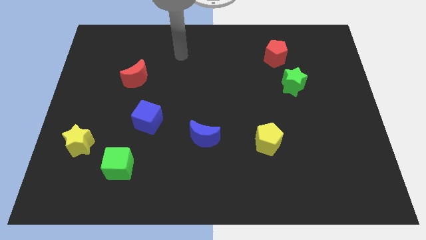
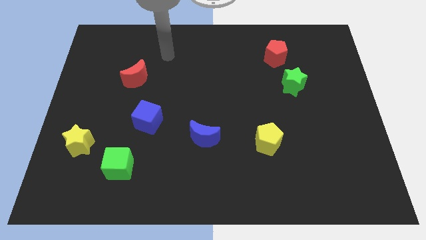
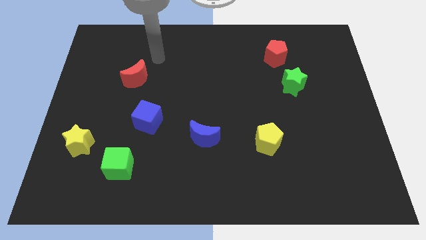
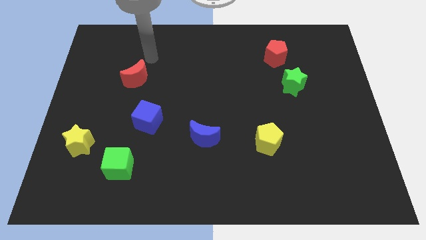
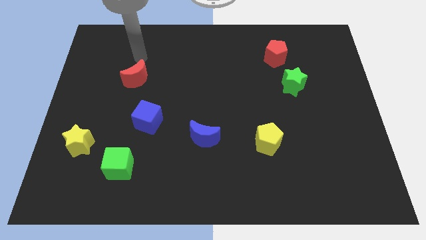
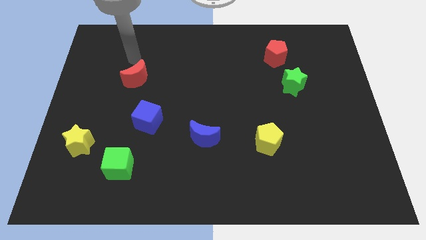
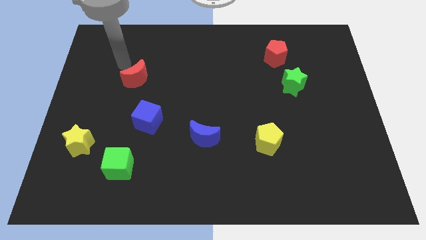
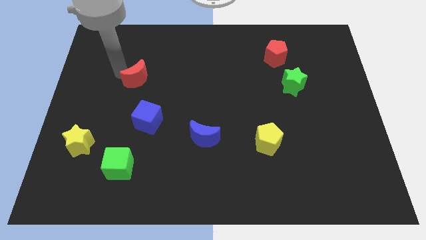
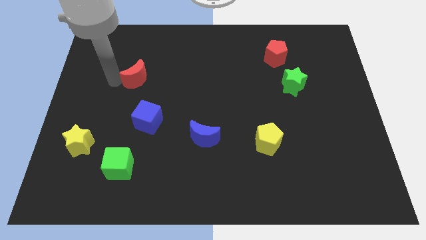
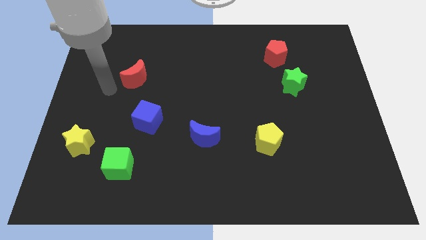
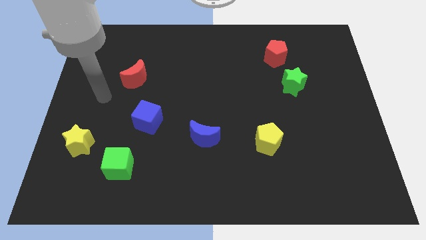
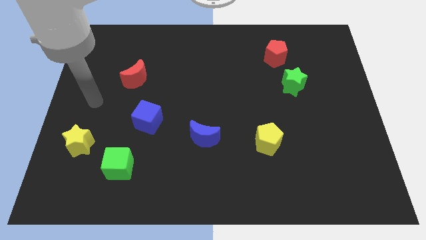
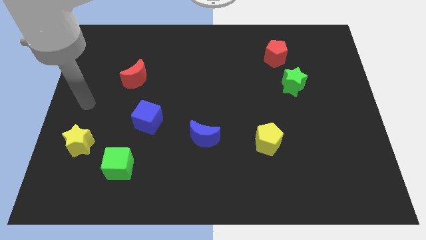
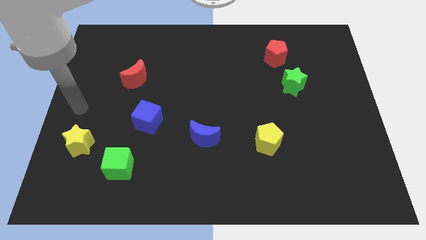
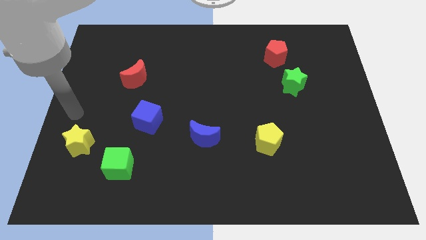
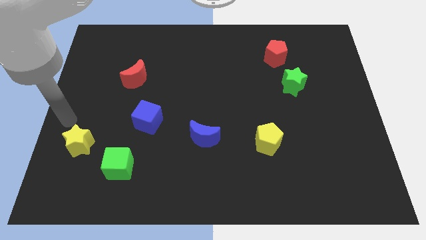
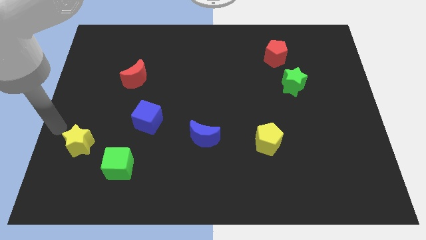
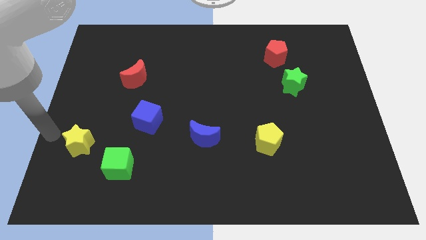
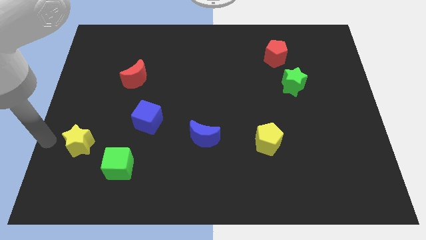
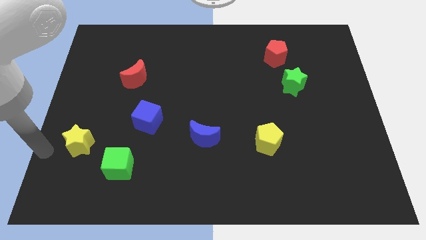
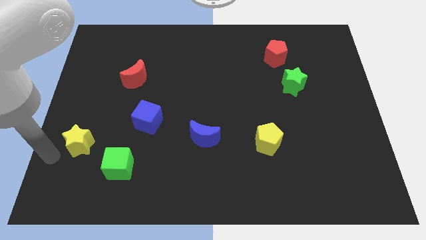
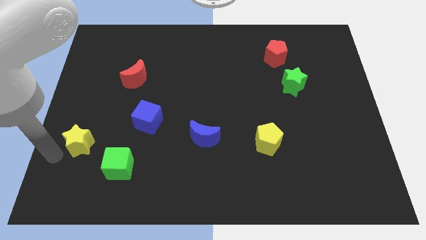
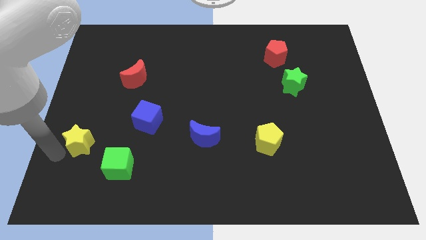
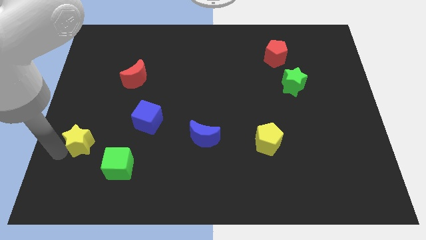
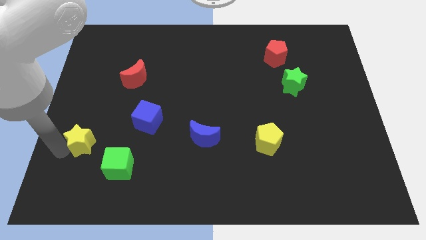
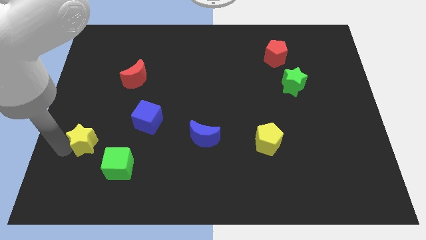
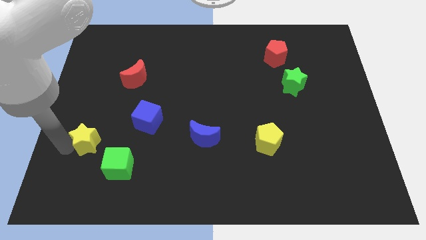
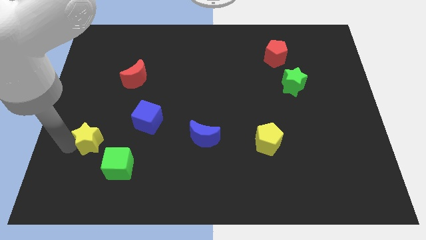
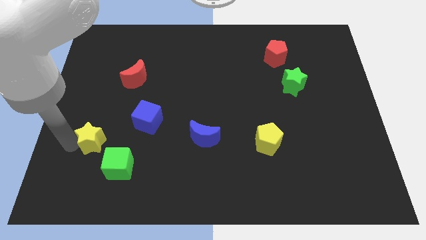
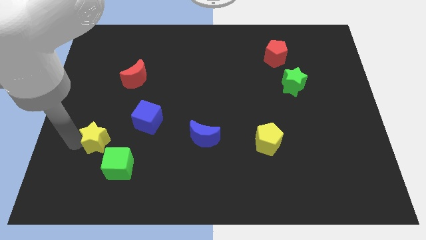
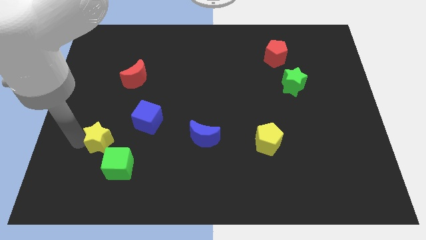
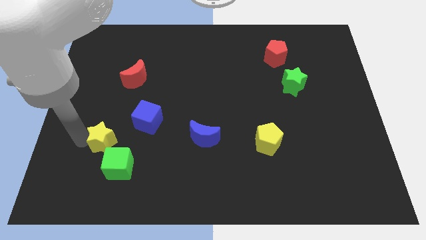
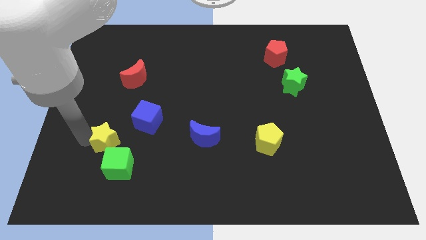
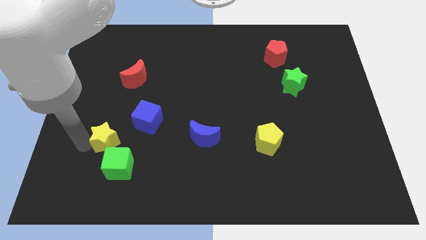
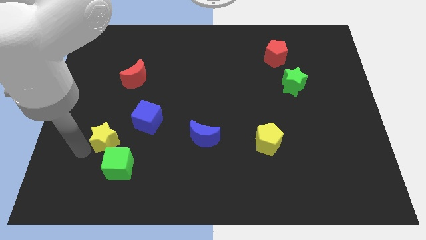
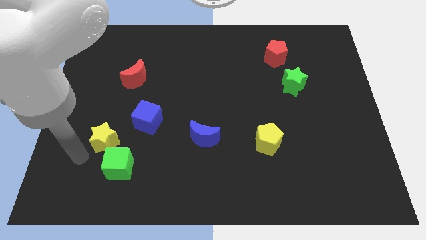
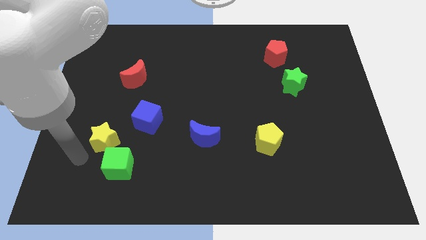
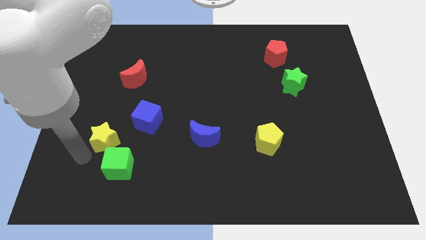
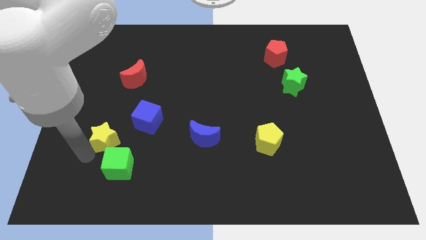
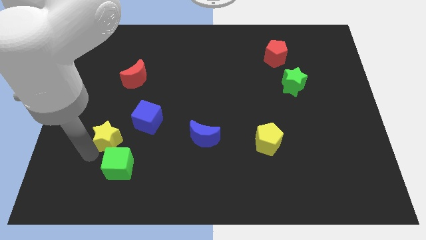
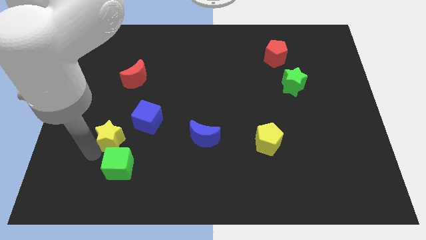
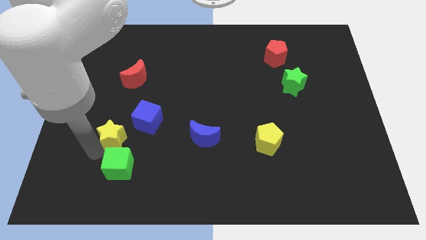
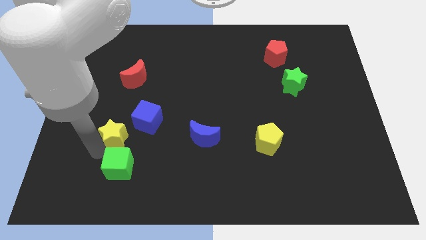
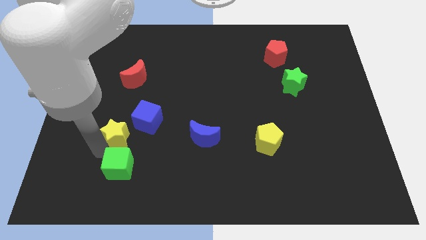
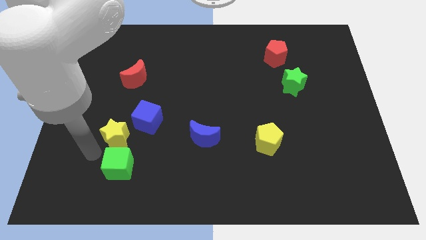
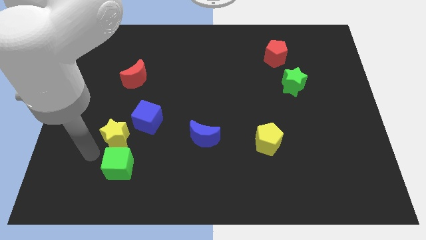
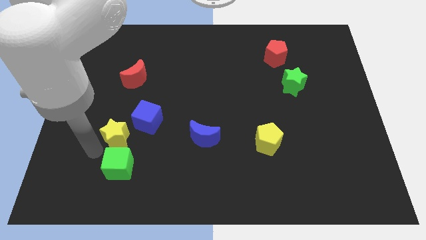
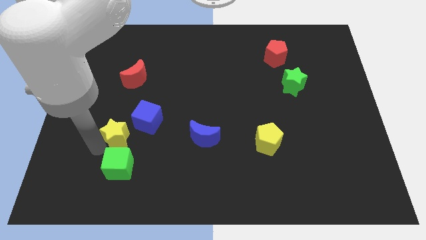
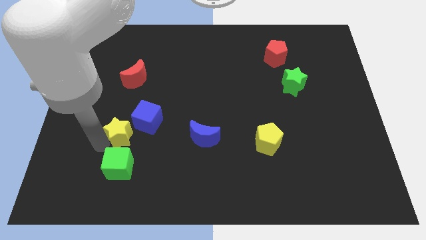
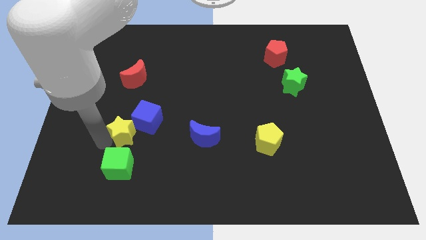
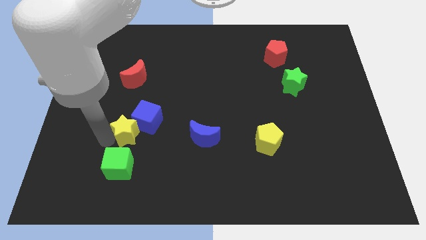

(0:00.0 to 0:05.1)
move the yellow star next to the blue cube

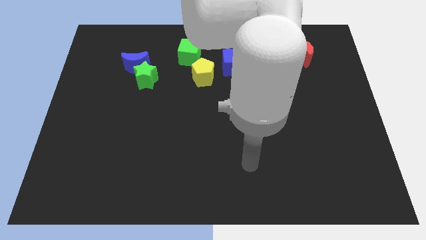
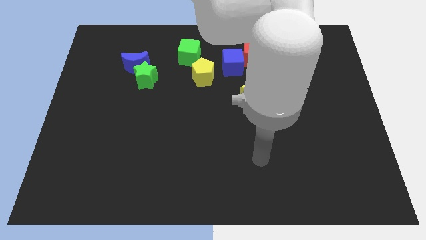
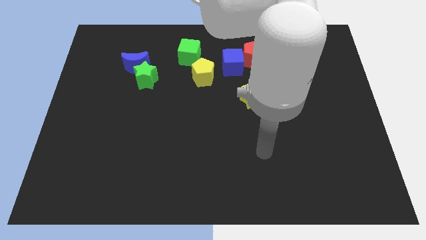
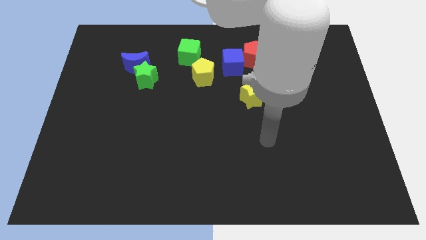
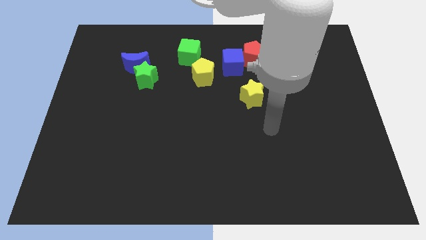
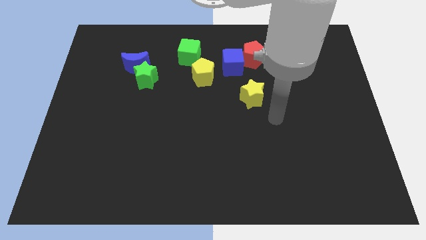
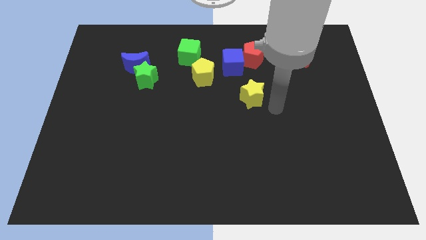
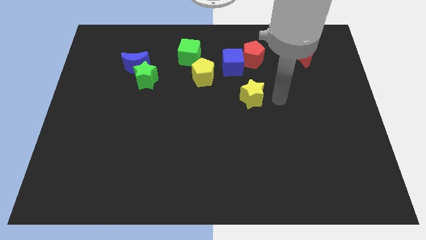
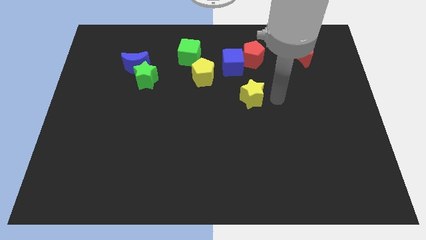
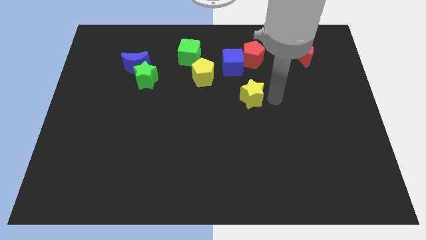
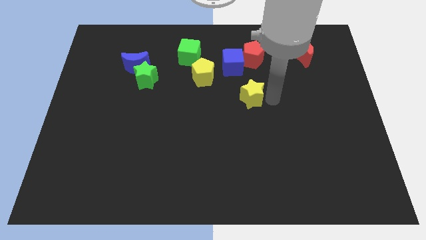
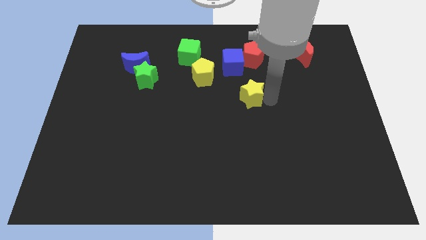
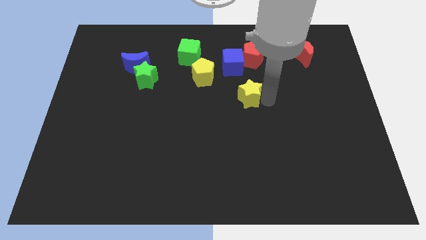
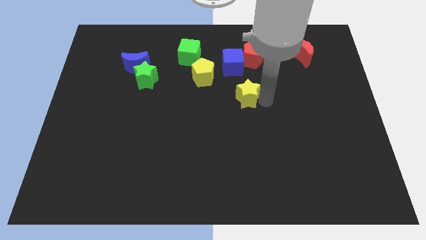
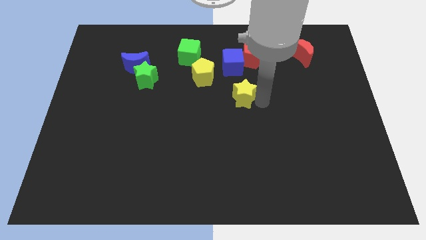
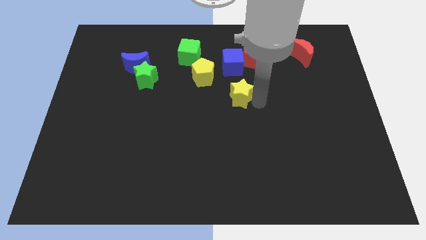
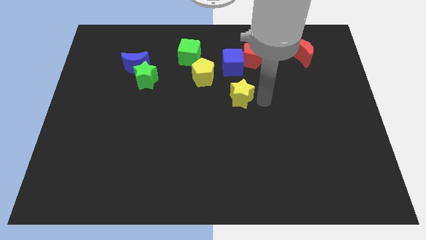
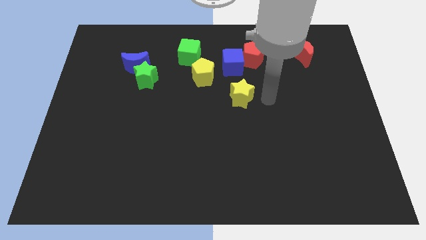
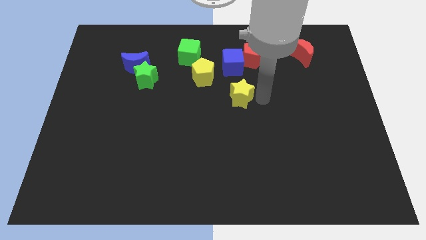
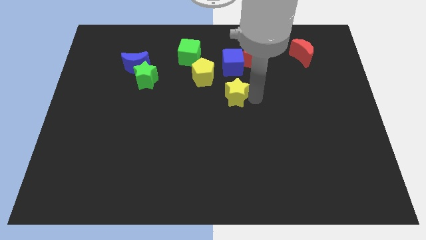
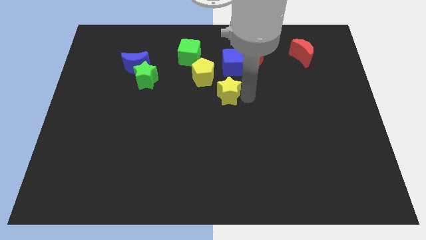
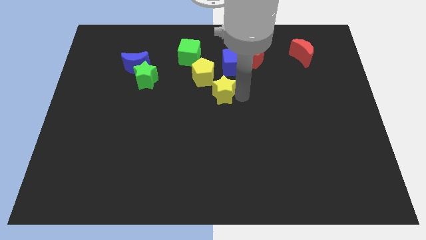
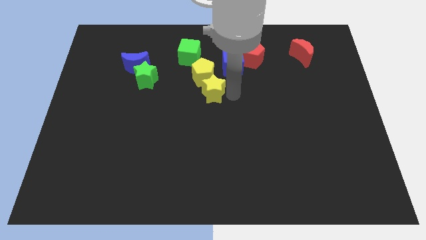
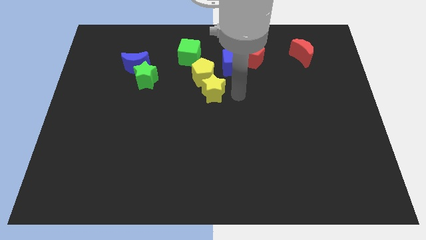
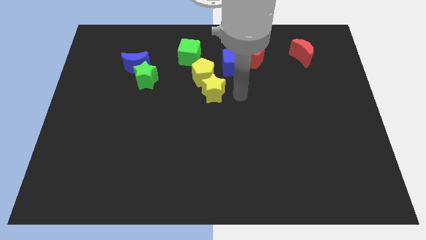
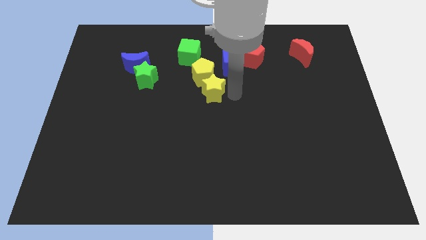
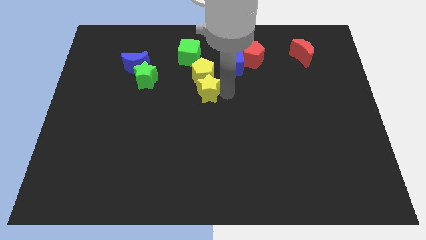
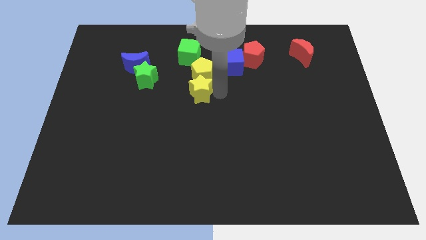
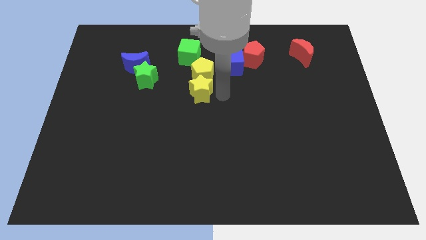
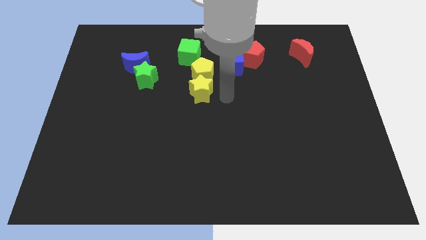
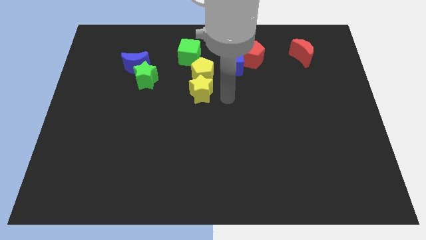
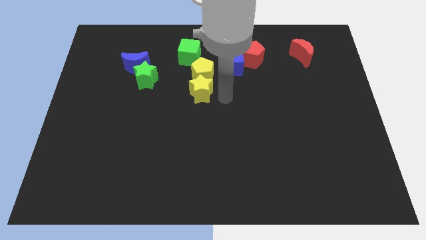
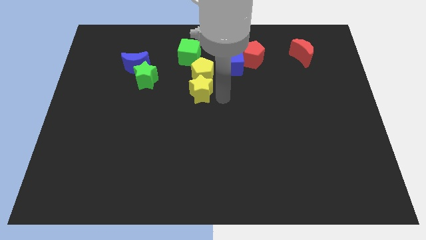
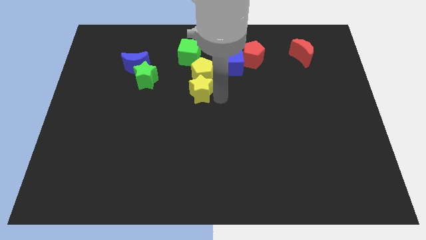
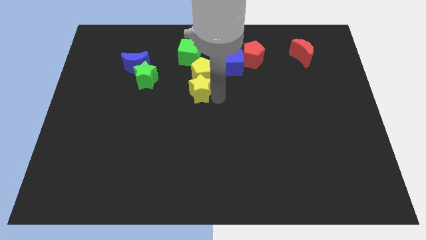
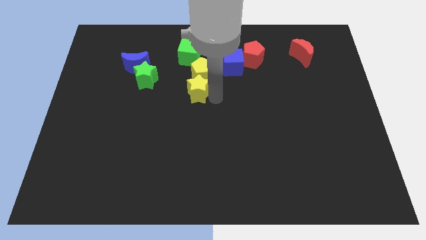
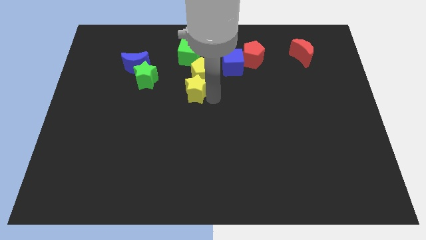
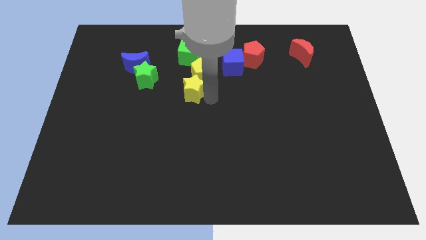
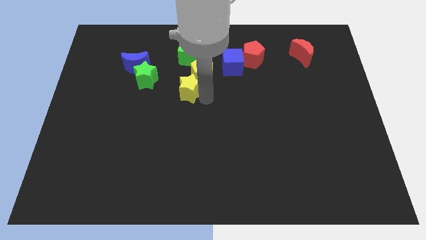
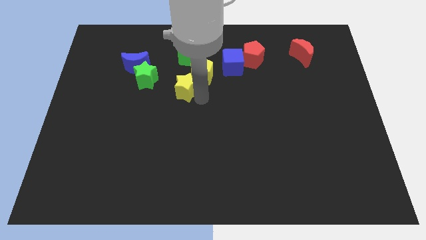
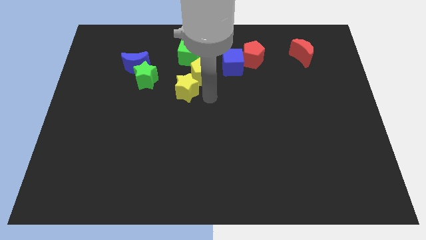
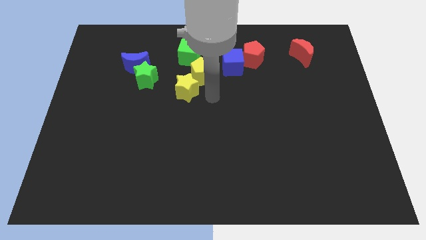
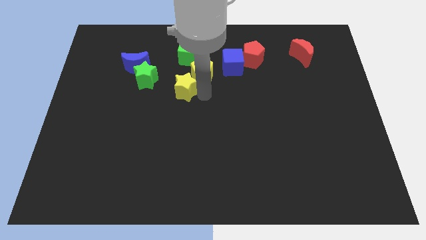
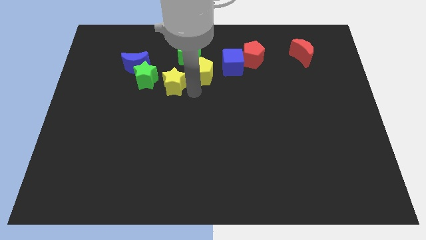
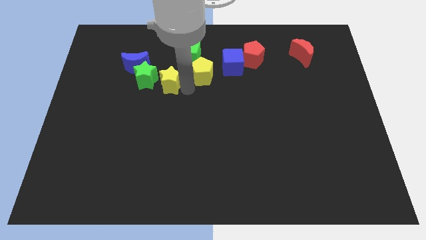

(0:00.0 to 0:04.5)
put the yellow star towards the green star
